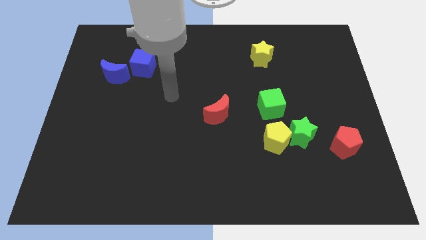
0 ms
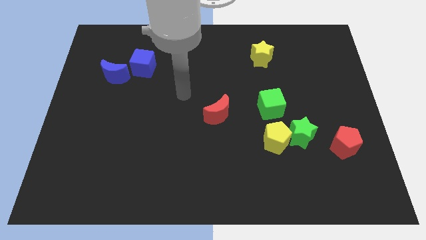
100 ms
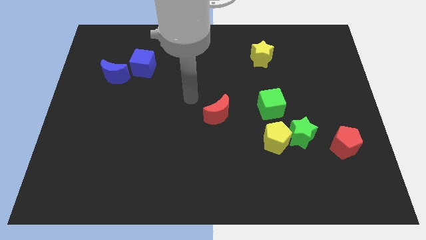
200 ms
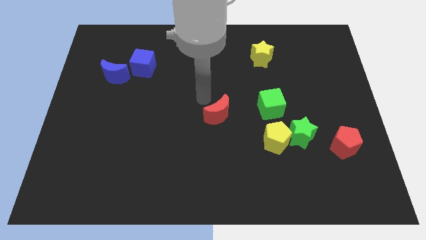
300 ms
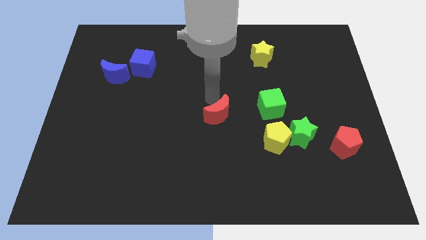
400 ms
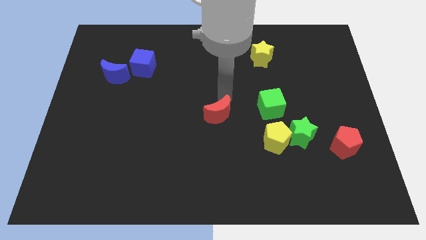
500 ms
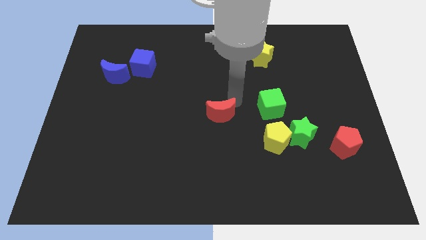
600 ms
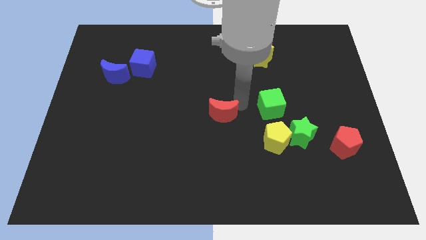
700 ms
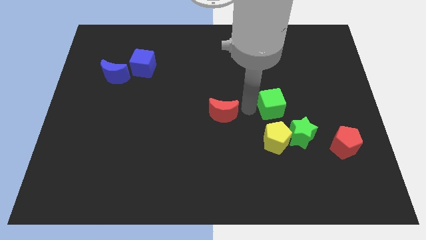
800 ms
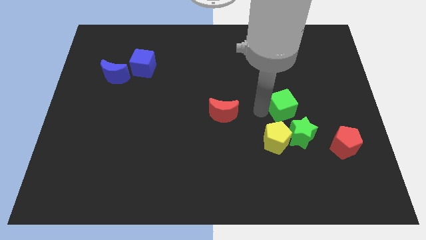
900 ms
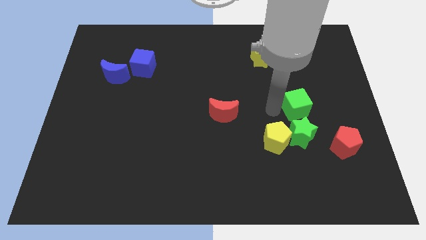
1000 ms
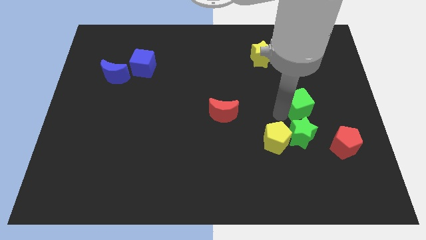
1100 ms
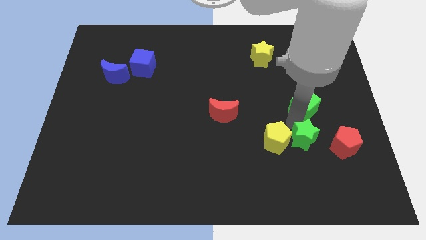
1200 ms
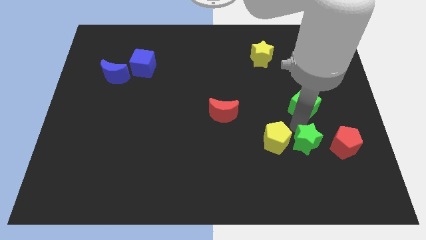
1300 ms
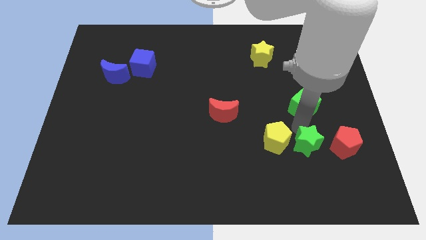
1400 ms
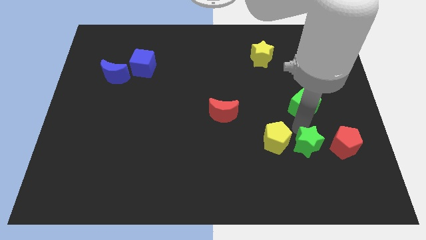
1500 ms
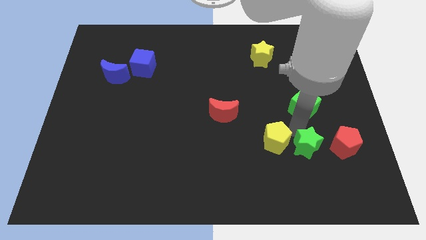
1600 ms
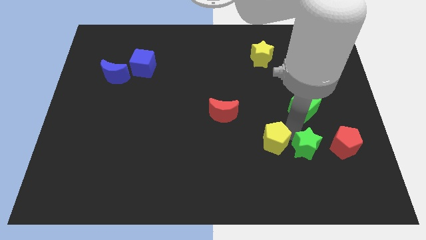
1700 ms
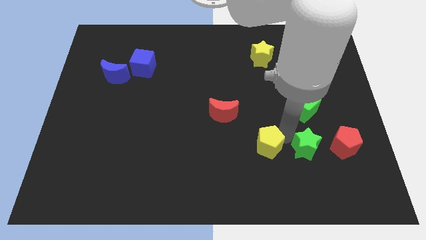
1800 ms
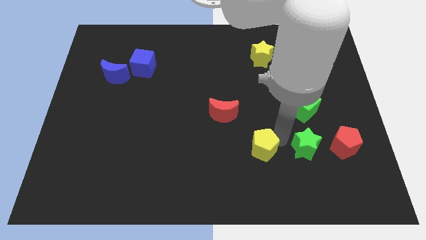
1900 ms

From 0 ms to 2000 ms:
move the yellow pentagon away from the green star and green cube

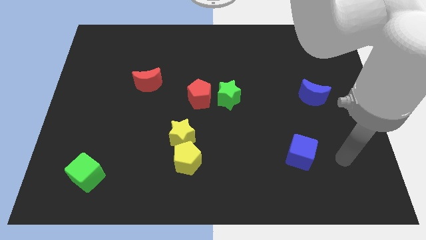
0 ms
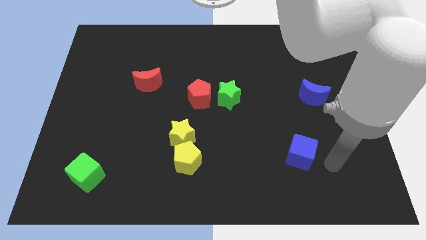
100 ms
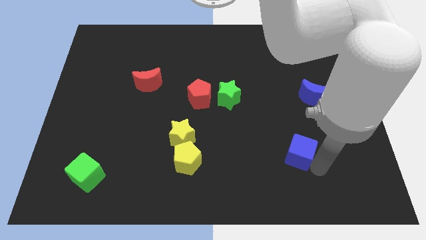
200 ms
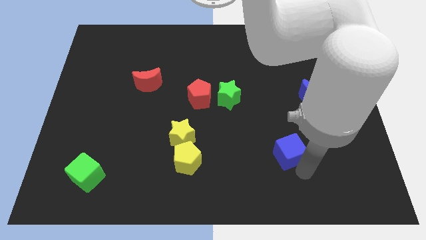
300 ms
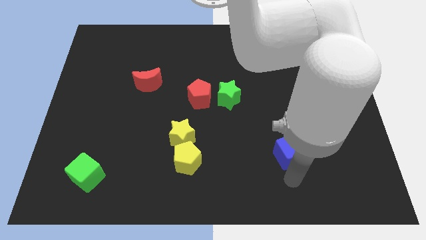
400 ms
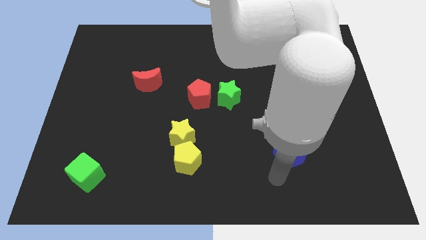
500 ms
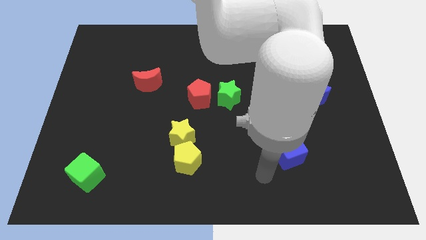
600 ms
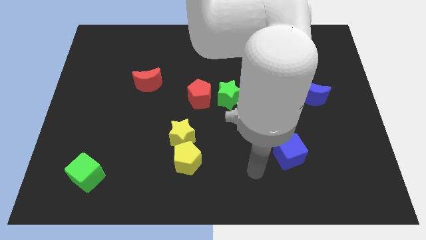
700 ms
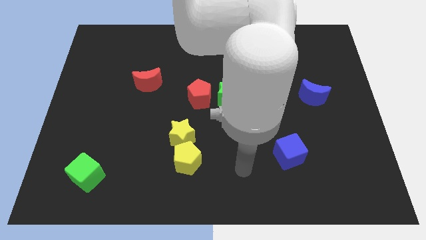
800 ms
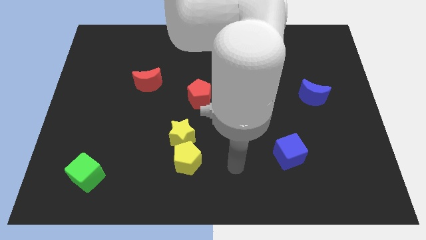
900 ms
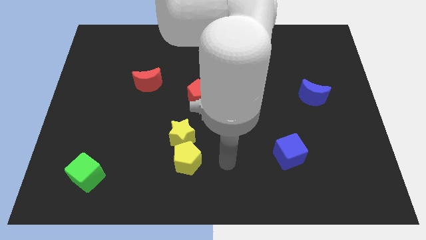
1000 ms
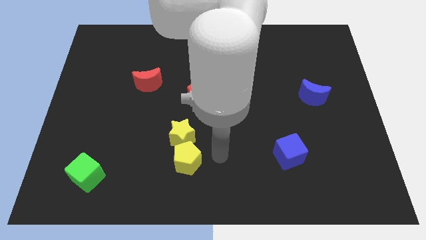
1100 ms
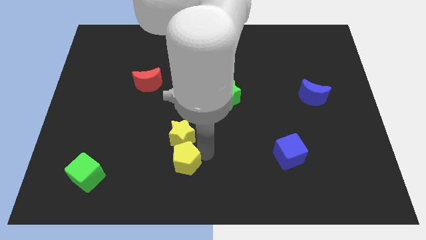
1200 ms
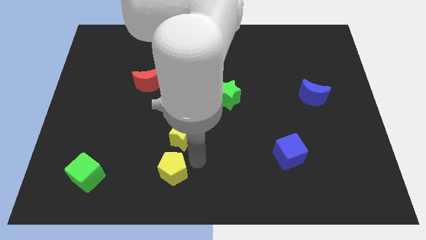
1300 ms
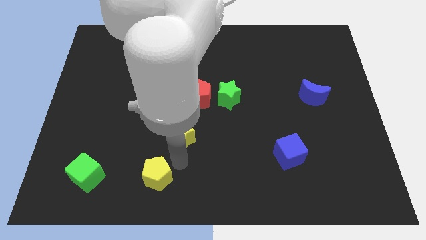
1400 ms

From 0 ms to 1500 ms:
pull the yellow star apart from the yellow pentagon

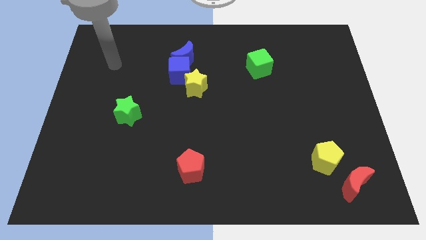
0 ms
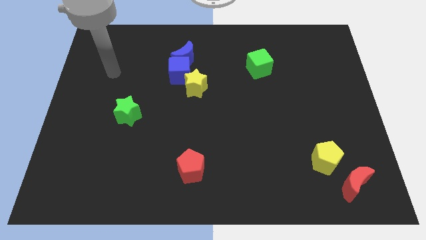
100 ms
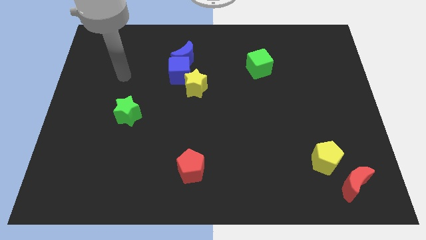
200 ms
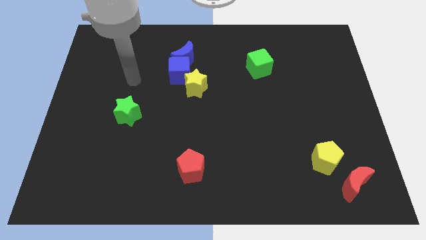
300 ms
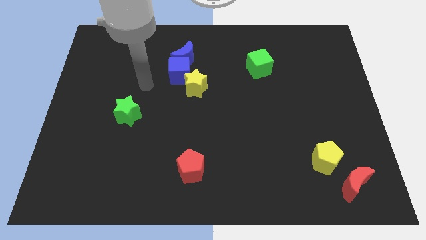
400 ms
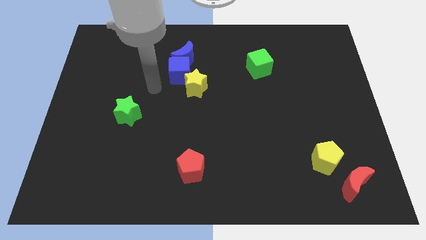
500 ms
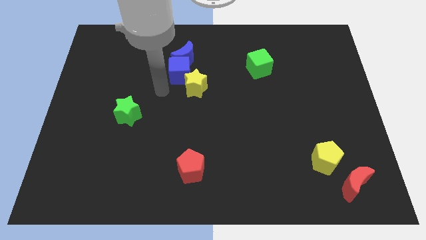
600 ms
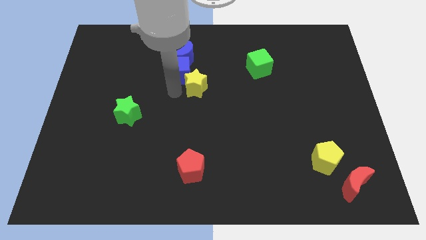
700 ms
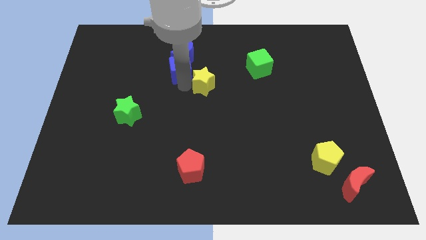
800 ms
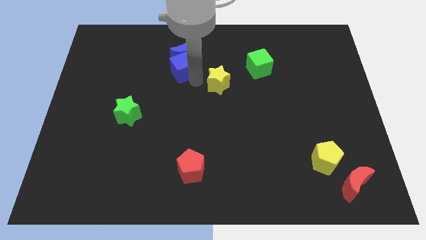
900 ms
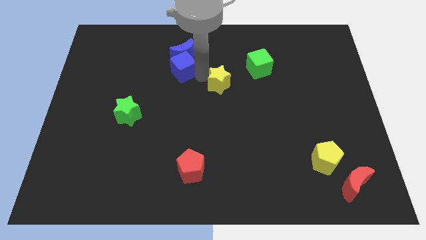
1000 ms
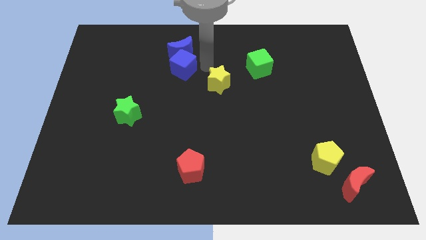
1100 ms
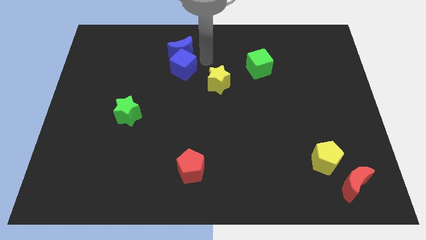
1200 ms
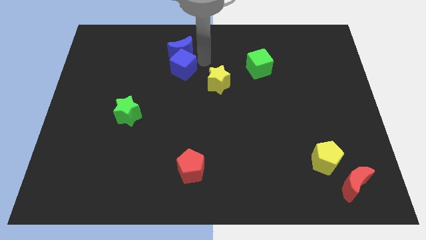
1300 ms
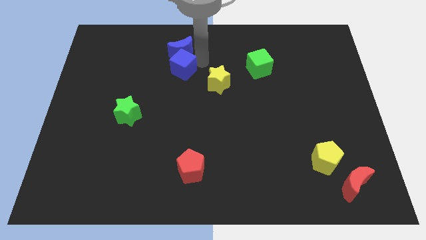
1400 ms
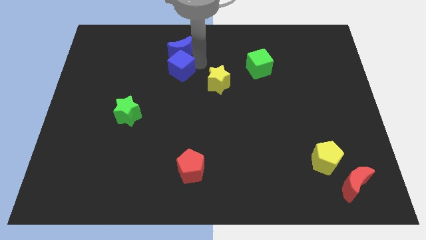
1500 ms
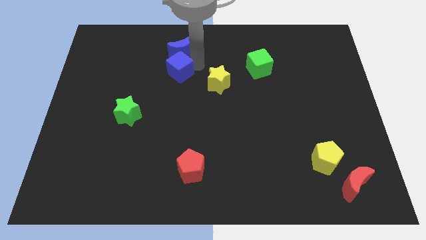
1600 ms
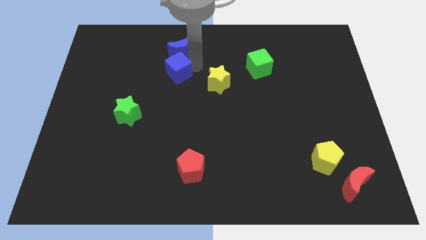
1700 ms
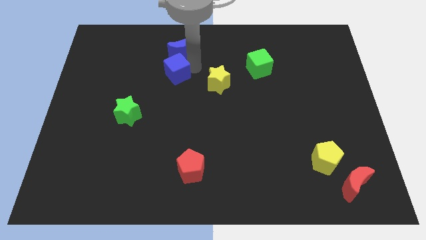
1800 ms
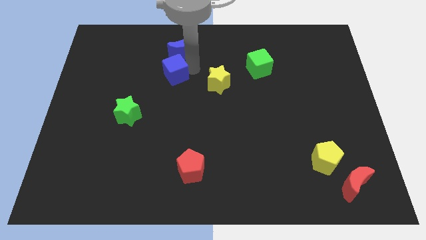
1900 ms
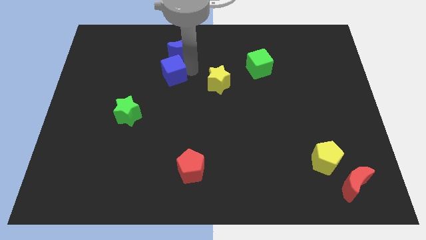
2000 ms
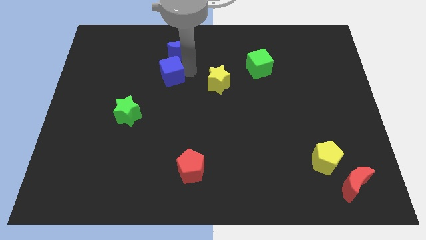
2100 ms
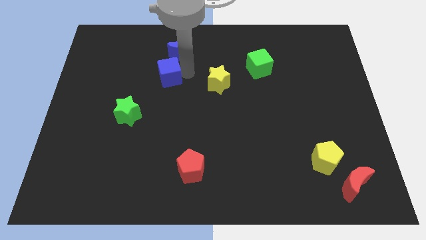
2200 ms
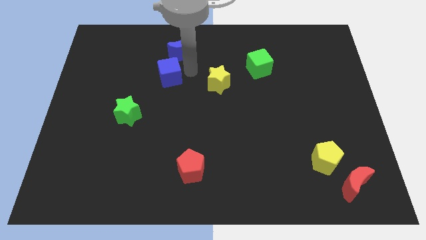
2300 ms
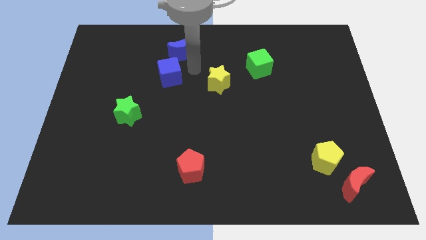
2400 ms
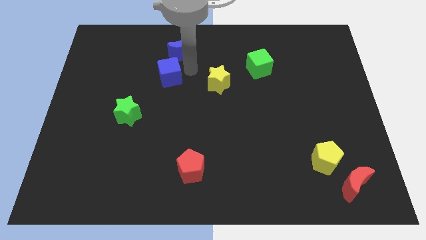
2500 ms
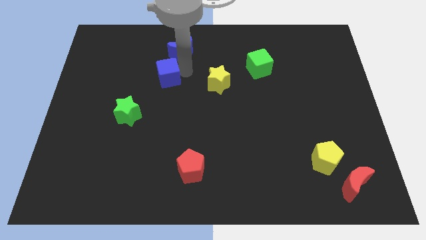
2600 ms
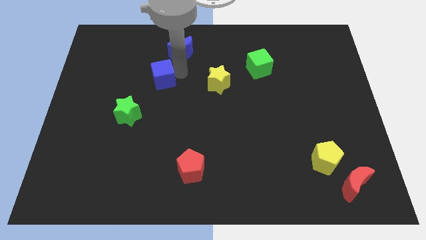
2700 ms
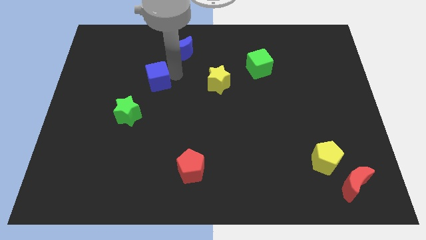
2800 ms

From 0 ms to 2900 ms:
pull the blue cube apart from the blue moon and yellow star

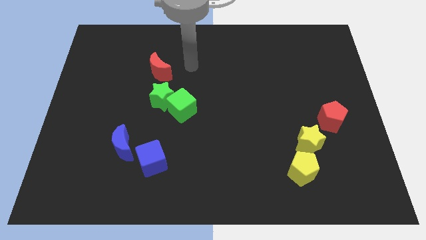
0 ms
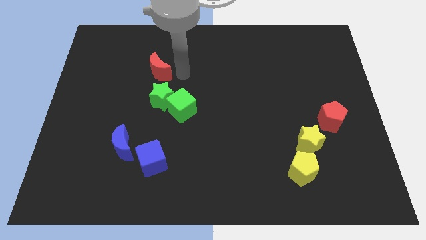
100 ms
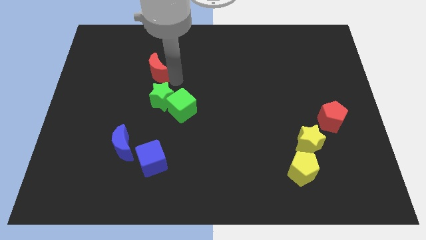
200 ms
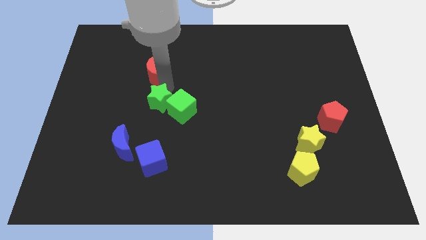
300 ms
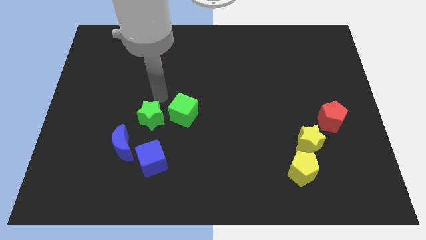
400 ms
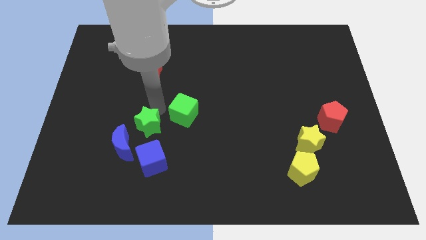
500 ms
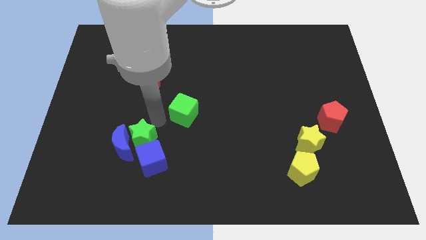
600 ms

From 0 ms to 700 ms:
pull the green cube apart from the green star

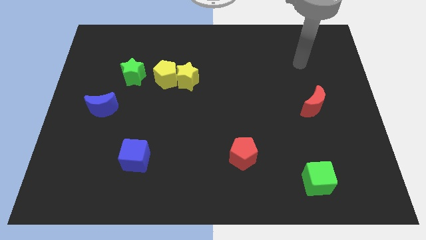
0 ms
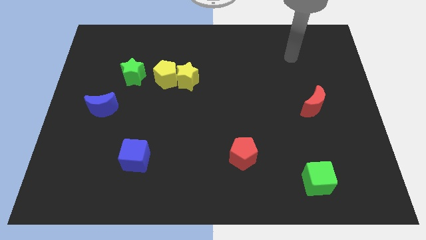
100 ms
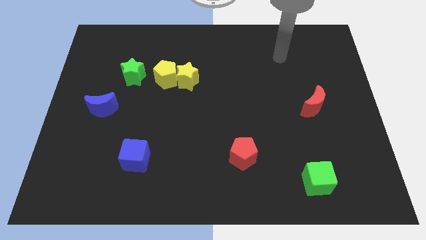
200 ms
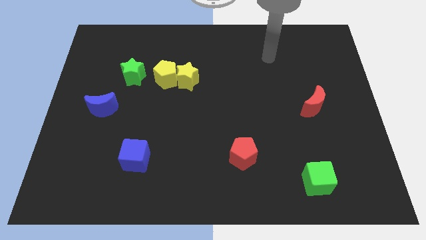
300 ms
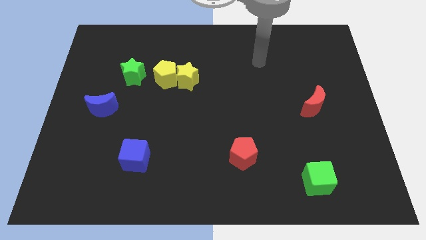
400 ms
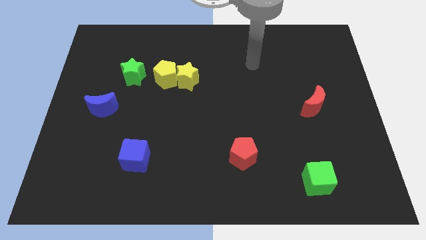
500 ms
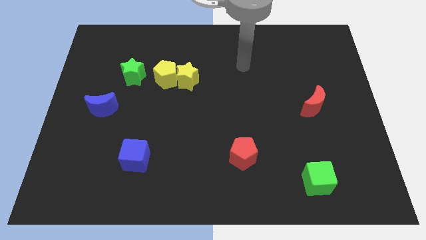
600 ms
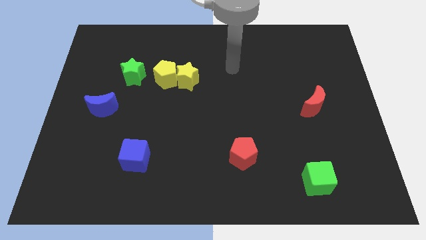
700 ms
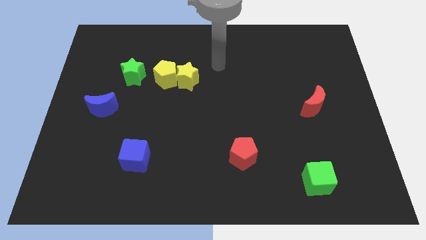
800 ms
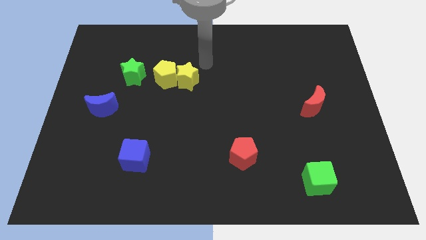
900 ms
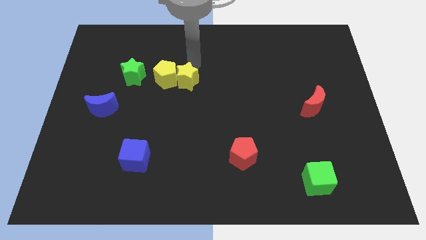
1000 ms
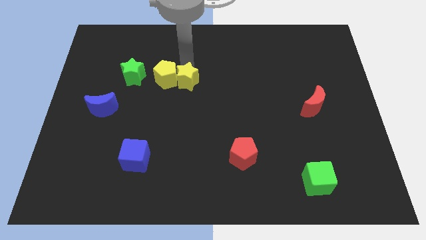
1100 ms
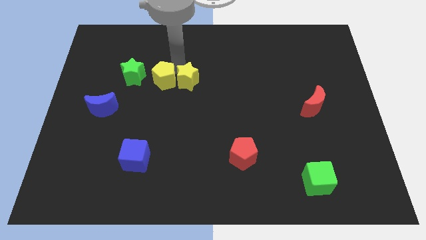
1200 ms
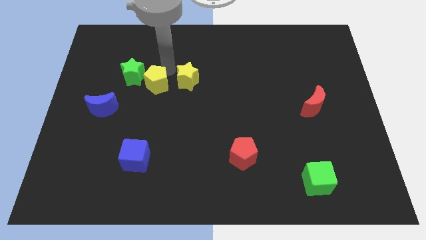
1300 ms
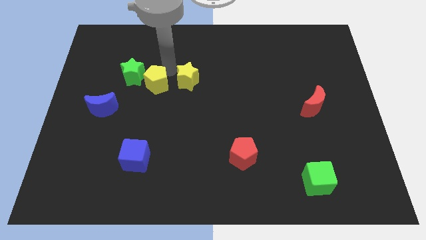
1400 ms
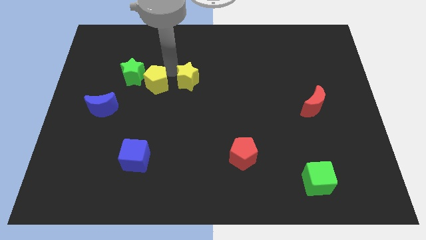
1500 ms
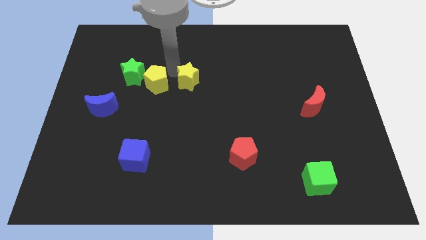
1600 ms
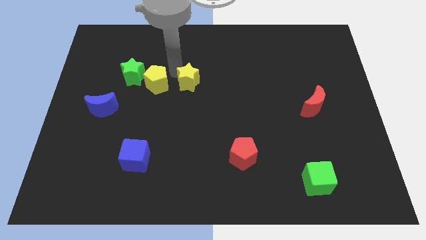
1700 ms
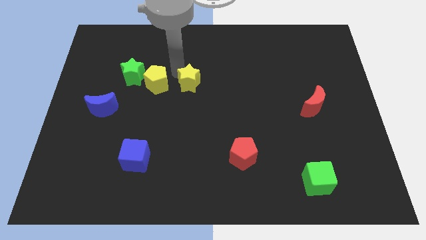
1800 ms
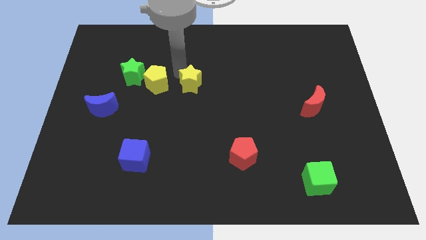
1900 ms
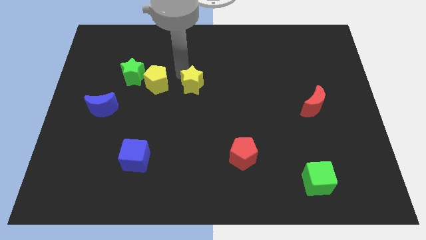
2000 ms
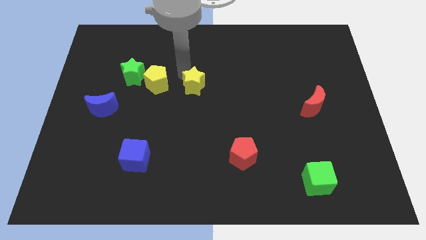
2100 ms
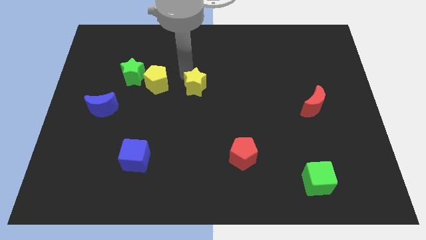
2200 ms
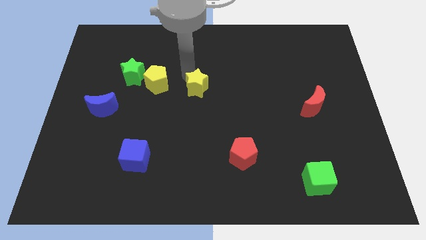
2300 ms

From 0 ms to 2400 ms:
separate the yellow star from the yellow pentagon

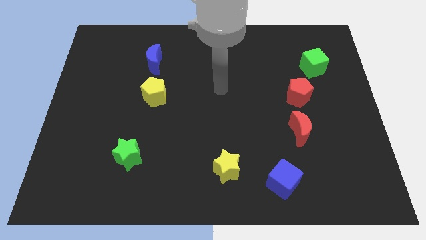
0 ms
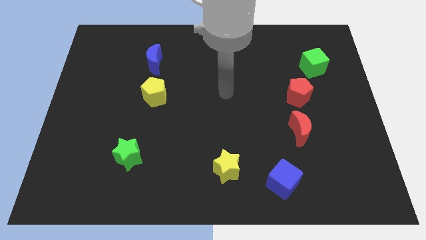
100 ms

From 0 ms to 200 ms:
separate the red moon from the red pentagon
